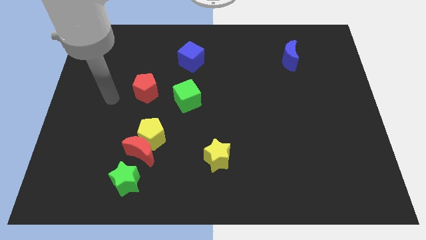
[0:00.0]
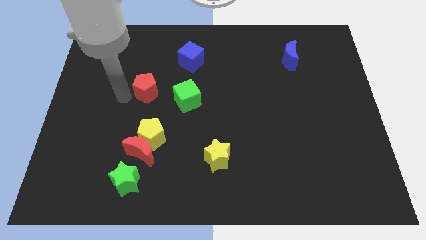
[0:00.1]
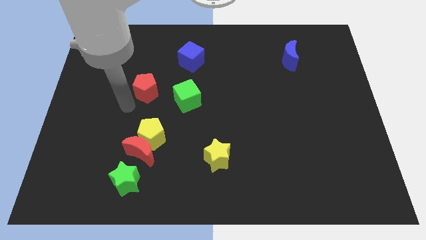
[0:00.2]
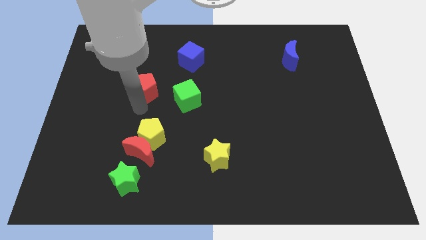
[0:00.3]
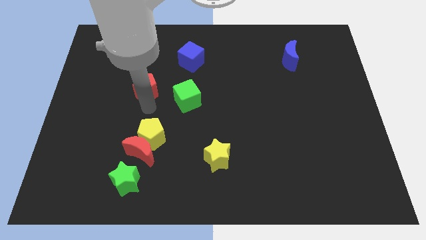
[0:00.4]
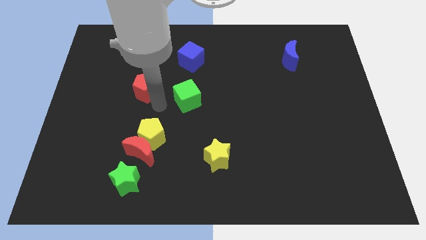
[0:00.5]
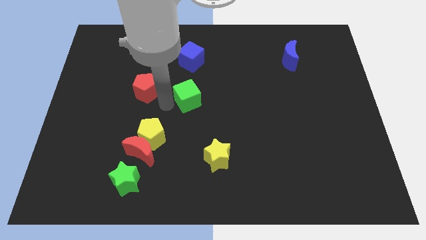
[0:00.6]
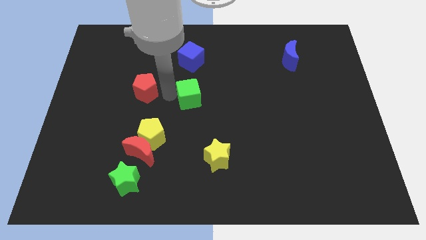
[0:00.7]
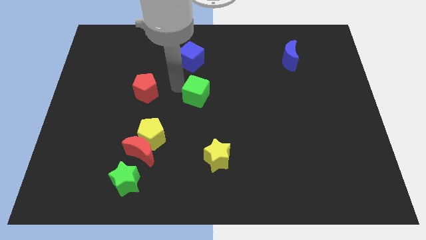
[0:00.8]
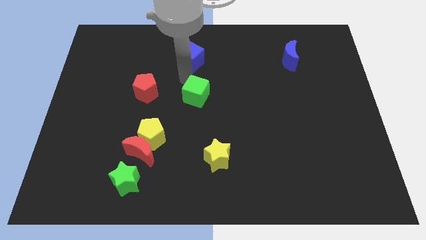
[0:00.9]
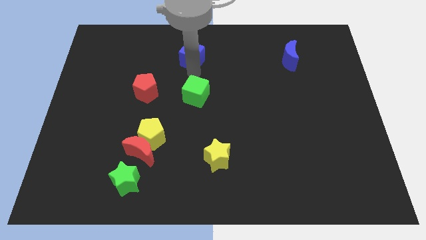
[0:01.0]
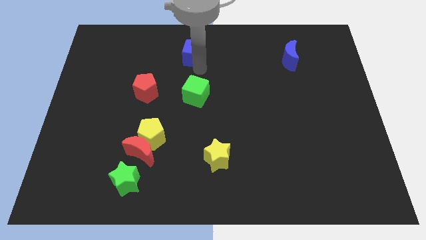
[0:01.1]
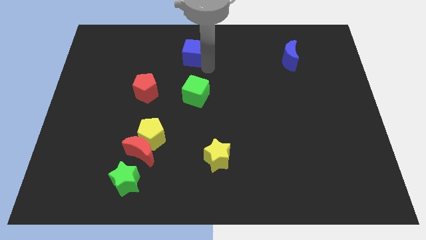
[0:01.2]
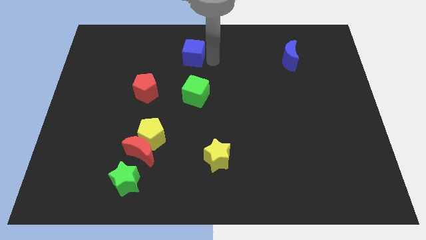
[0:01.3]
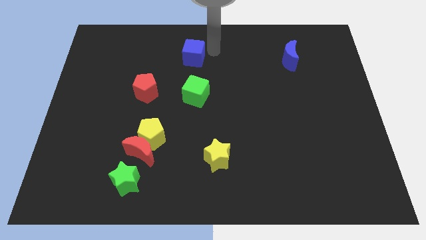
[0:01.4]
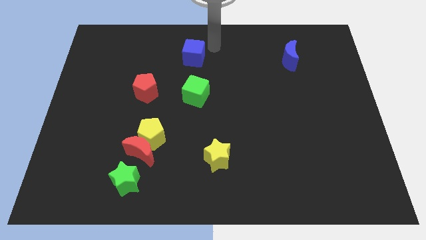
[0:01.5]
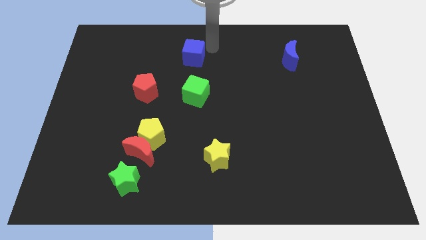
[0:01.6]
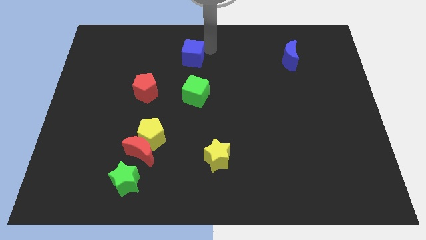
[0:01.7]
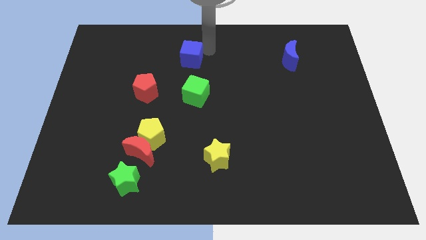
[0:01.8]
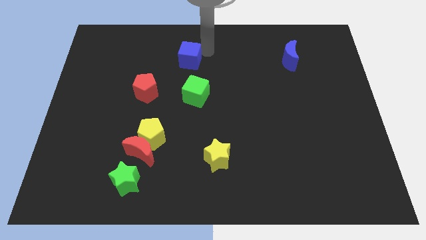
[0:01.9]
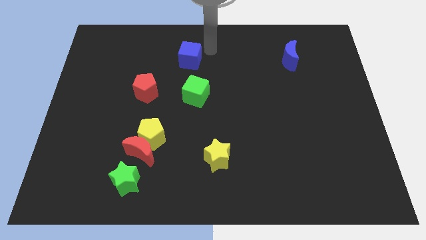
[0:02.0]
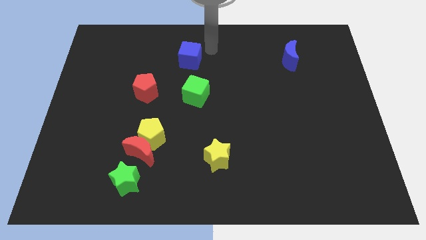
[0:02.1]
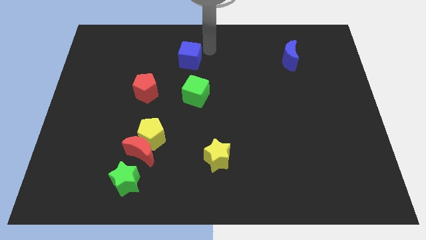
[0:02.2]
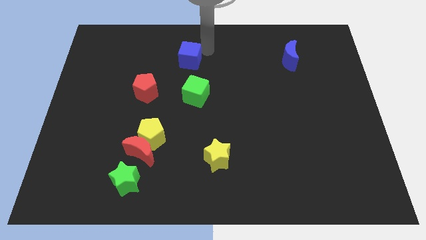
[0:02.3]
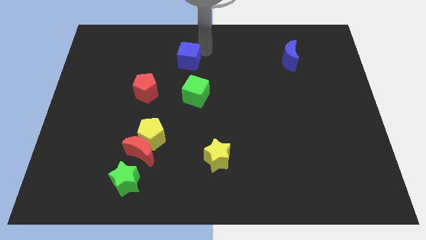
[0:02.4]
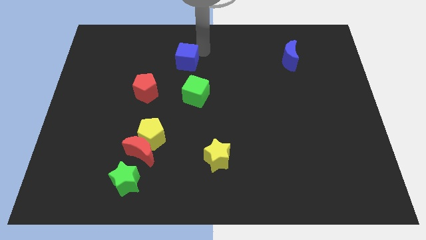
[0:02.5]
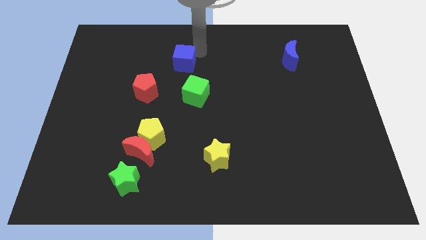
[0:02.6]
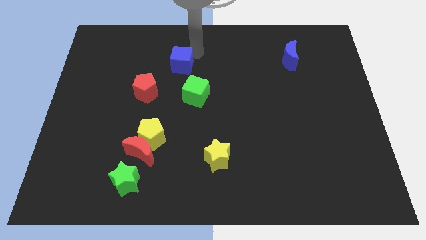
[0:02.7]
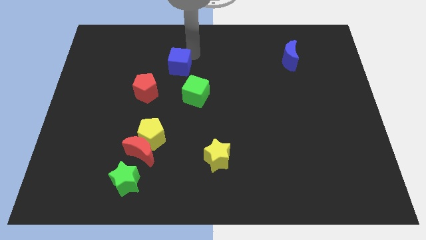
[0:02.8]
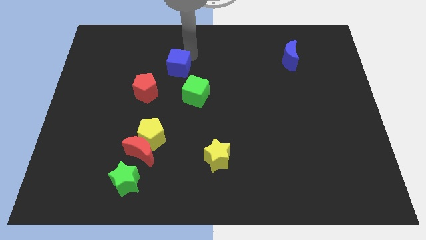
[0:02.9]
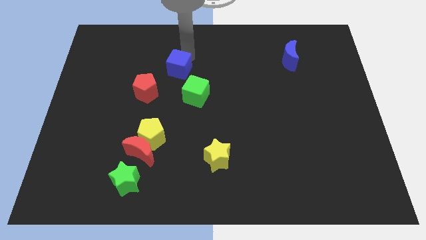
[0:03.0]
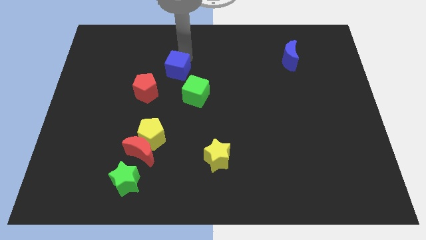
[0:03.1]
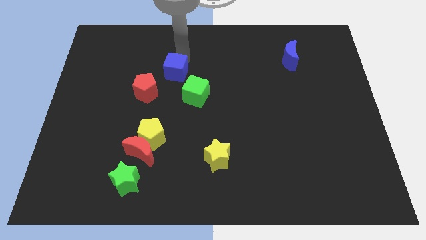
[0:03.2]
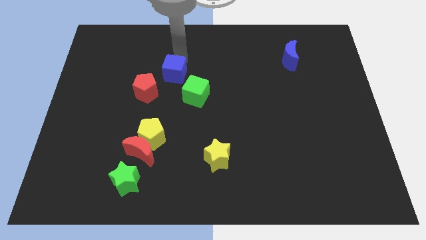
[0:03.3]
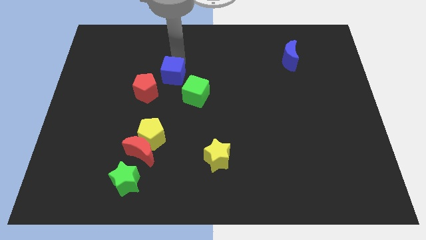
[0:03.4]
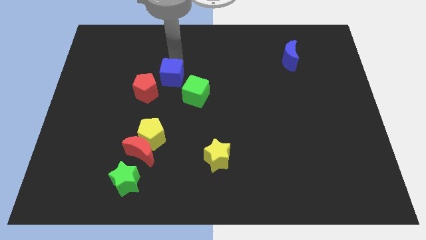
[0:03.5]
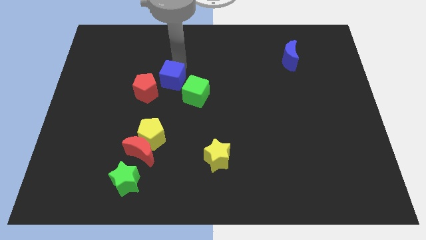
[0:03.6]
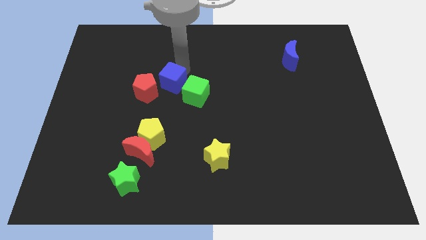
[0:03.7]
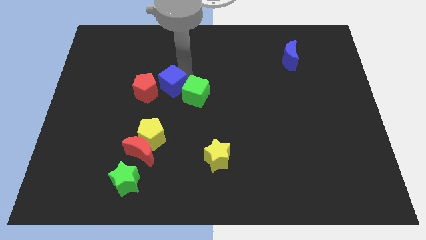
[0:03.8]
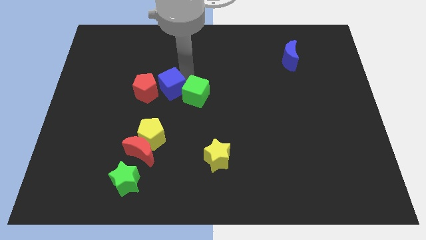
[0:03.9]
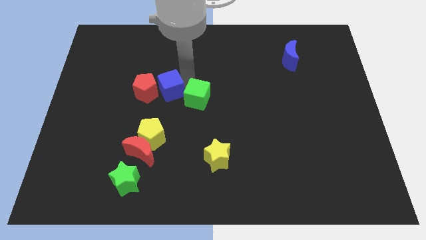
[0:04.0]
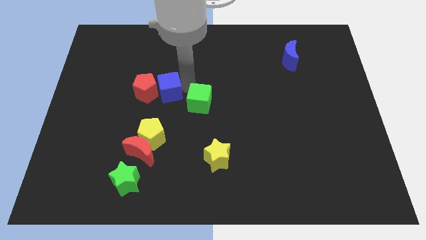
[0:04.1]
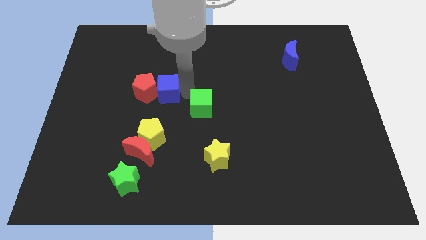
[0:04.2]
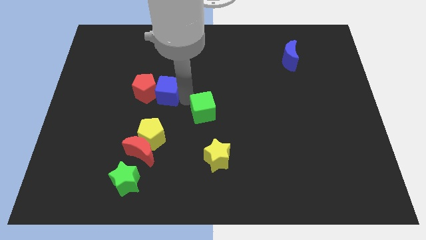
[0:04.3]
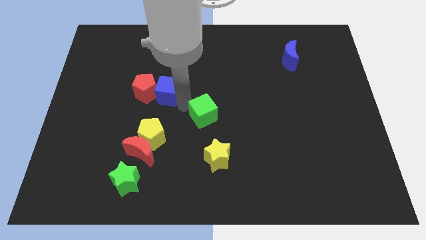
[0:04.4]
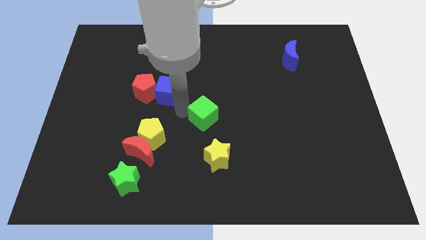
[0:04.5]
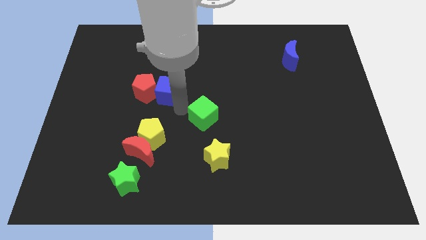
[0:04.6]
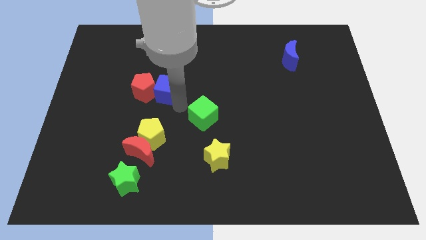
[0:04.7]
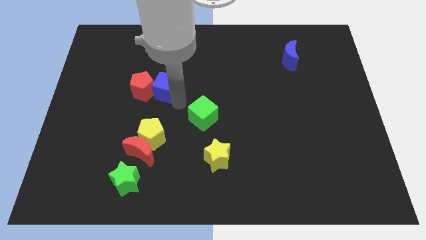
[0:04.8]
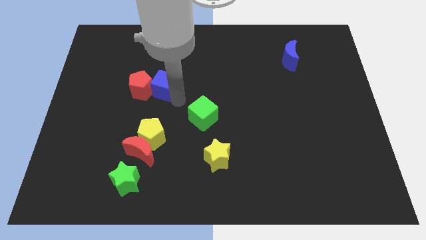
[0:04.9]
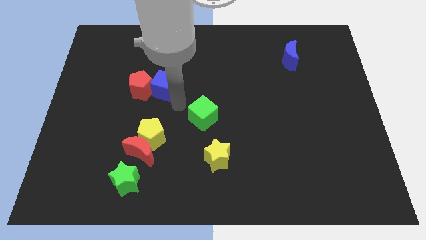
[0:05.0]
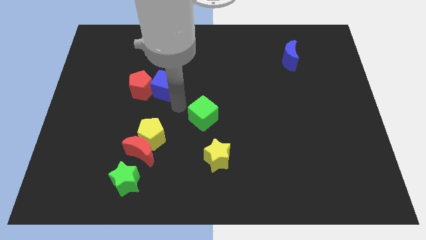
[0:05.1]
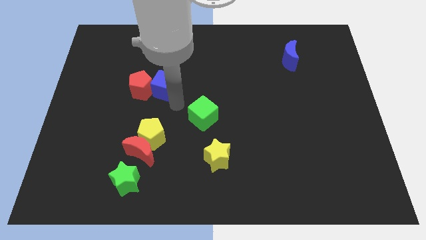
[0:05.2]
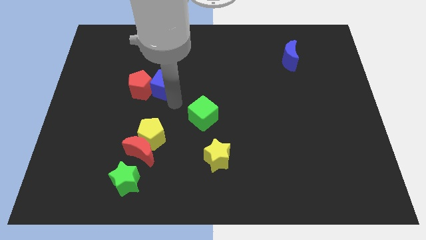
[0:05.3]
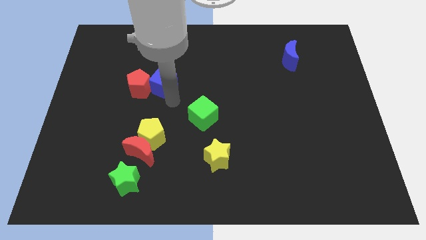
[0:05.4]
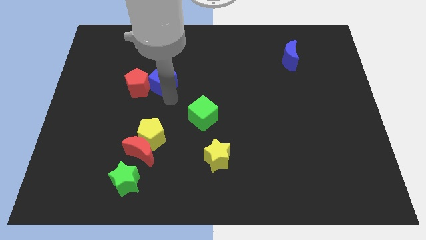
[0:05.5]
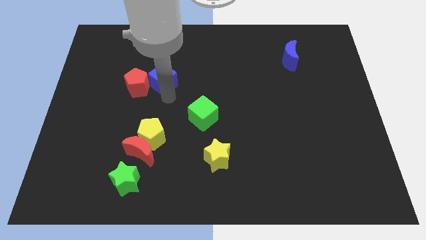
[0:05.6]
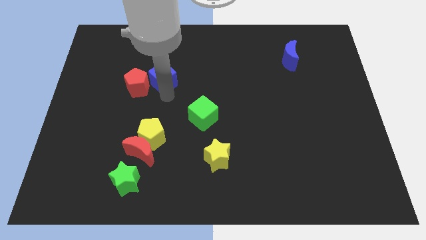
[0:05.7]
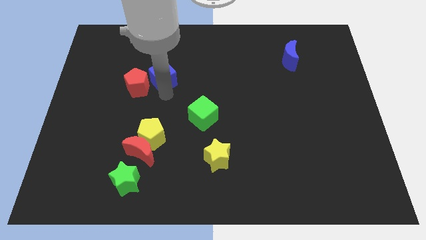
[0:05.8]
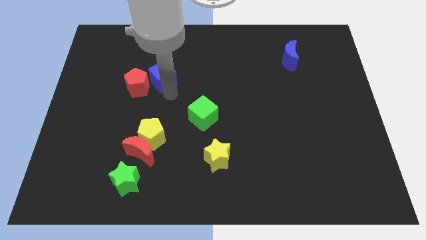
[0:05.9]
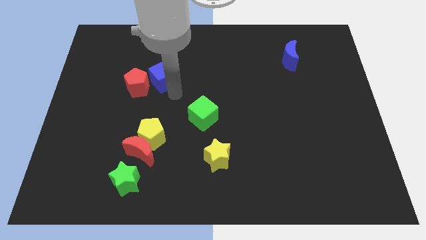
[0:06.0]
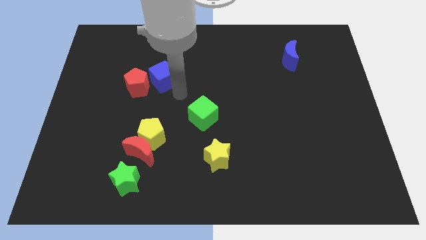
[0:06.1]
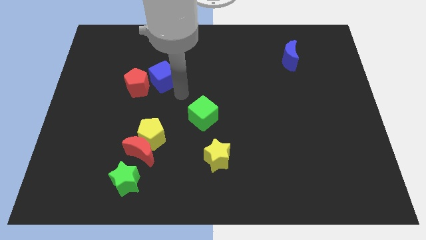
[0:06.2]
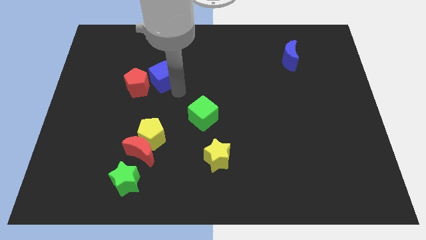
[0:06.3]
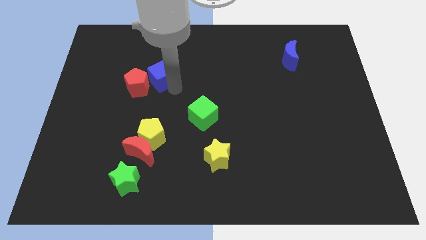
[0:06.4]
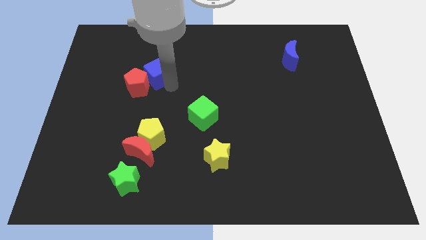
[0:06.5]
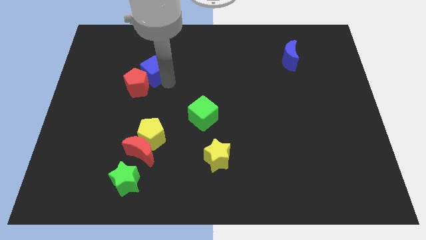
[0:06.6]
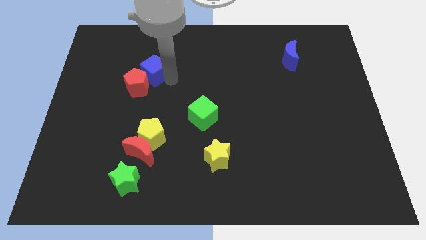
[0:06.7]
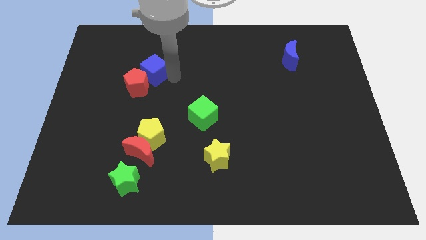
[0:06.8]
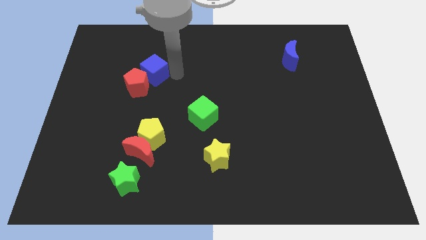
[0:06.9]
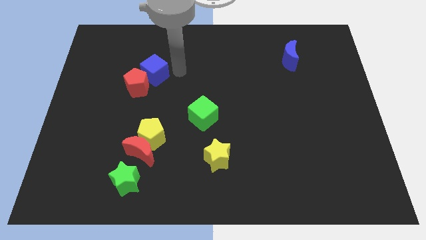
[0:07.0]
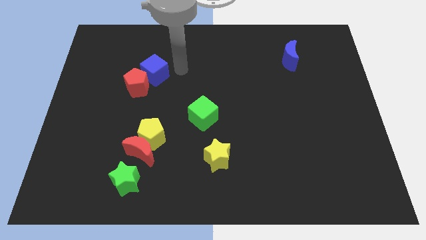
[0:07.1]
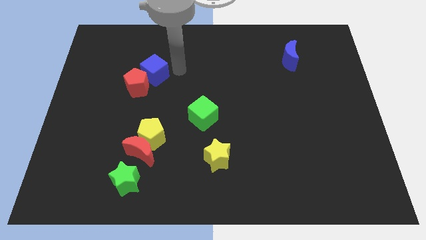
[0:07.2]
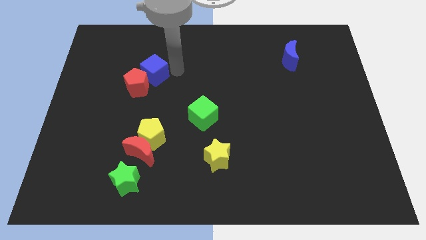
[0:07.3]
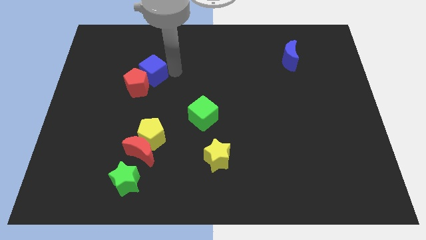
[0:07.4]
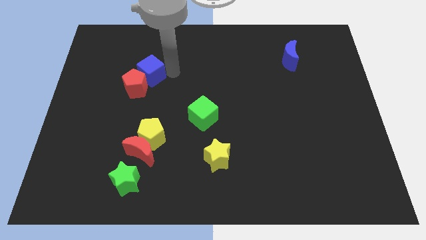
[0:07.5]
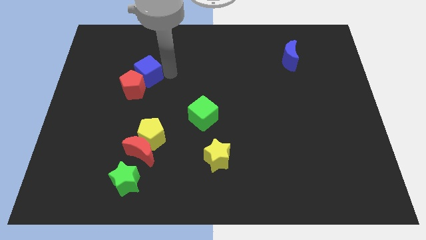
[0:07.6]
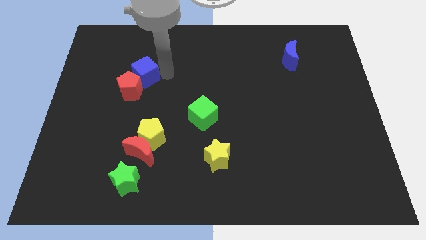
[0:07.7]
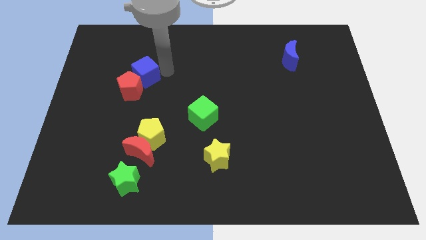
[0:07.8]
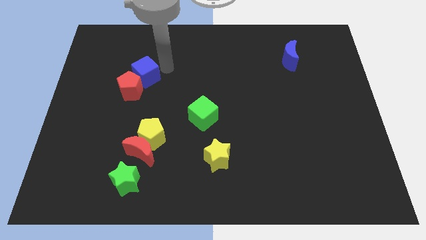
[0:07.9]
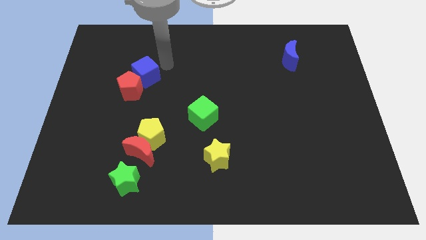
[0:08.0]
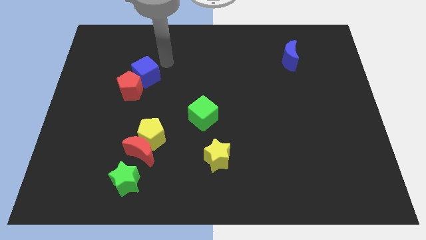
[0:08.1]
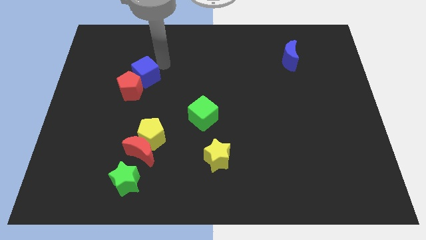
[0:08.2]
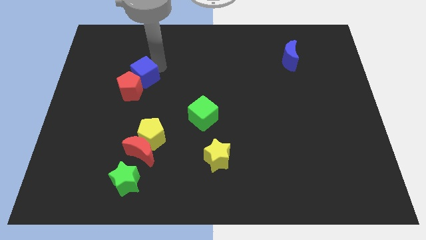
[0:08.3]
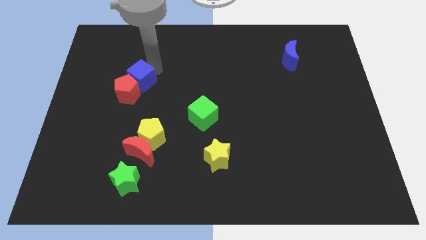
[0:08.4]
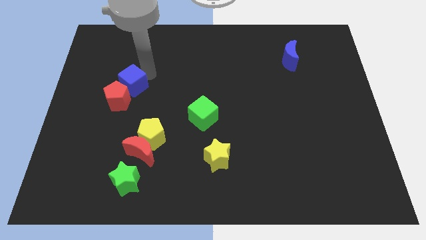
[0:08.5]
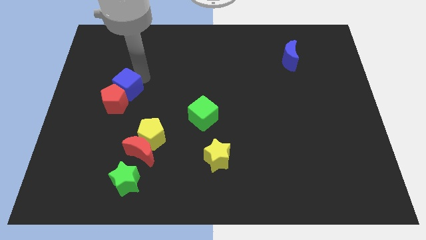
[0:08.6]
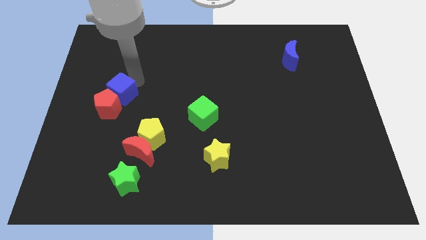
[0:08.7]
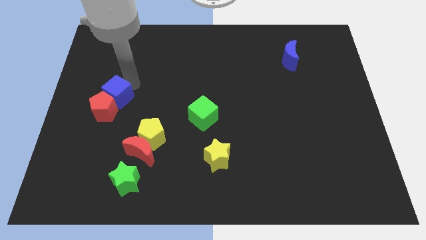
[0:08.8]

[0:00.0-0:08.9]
move the blue cube downwards and to the left
